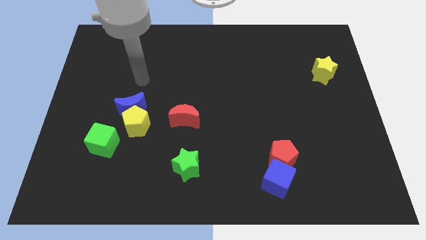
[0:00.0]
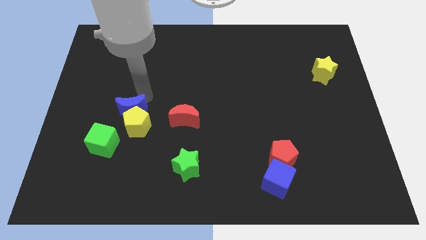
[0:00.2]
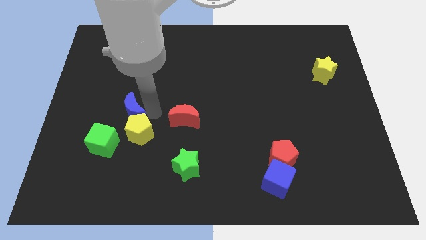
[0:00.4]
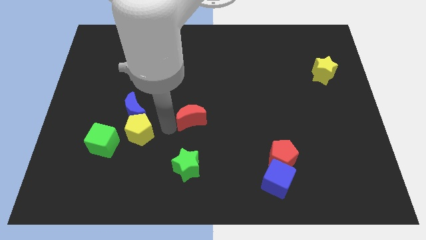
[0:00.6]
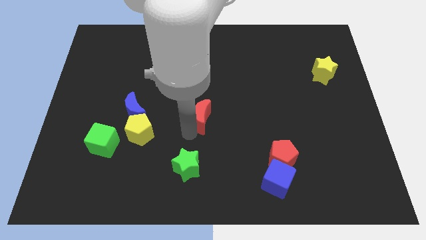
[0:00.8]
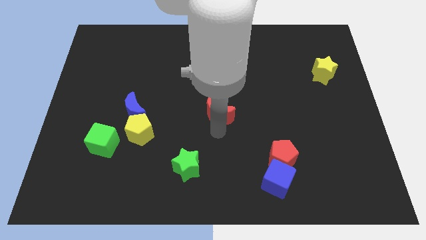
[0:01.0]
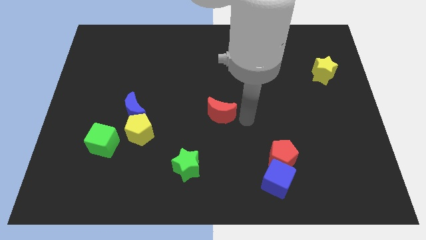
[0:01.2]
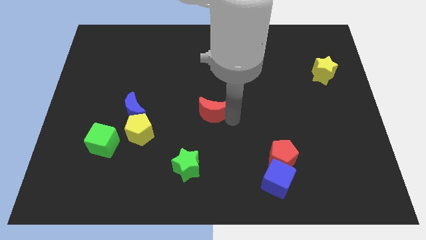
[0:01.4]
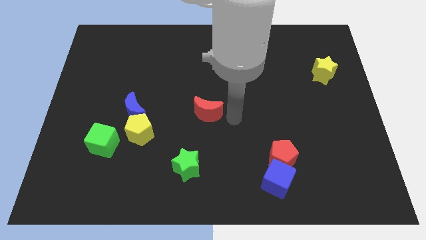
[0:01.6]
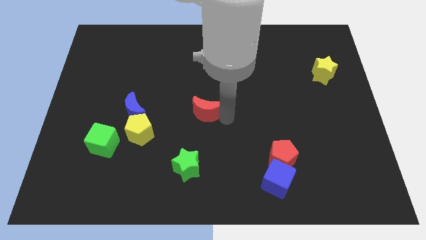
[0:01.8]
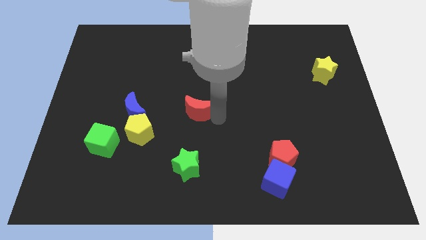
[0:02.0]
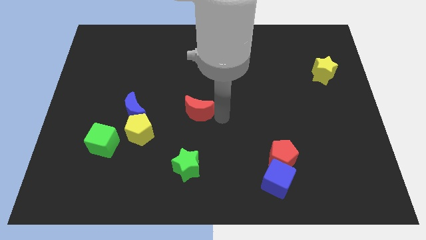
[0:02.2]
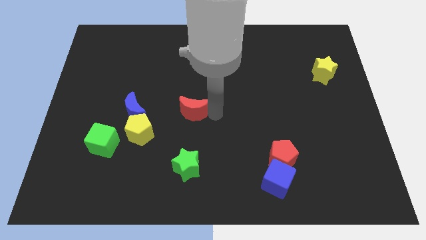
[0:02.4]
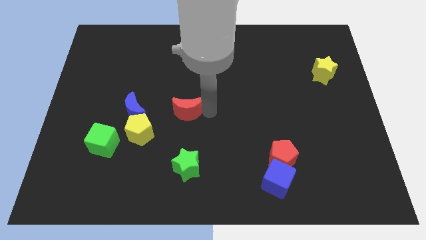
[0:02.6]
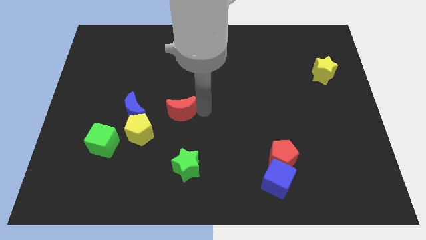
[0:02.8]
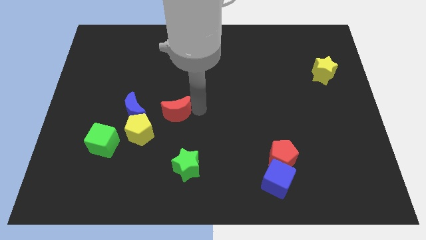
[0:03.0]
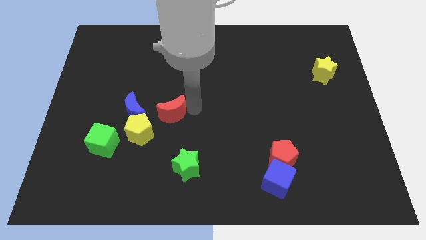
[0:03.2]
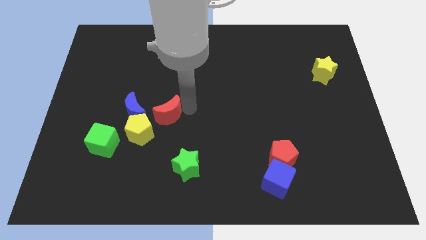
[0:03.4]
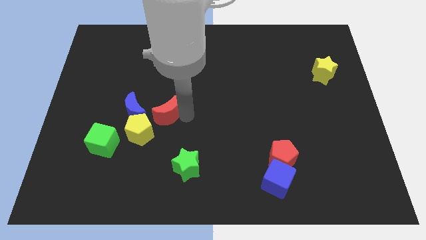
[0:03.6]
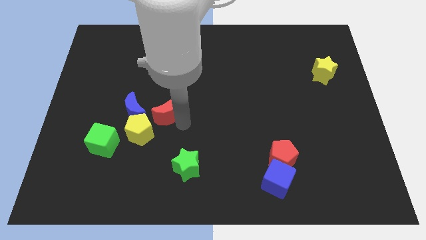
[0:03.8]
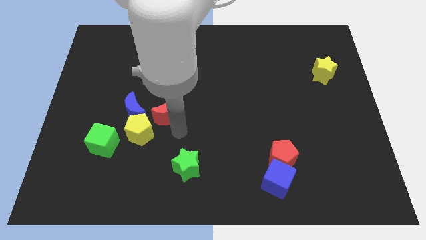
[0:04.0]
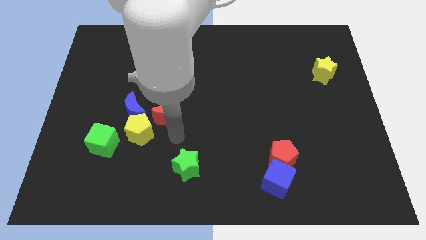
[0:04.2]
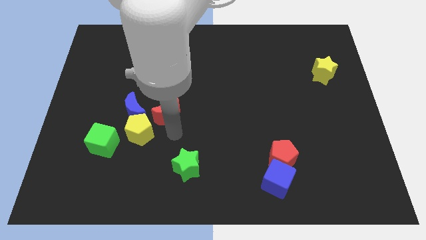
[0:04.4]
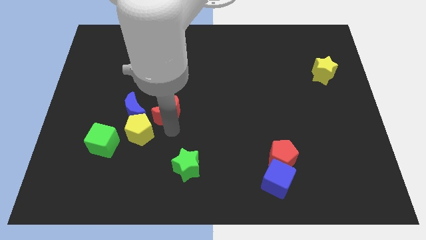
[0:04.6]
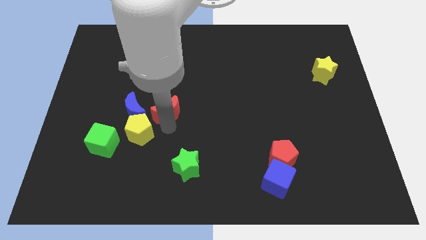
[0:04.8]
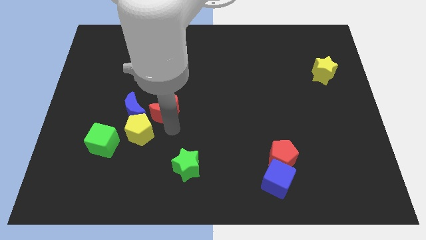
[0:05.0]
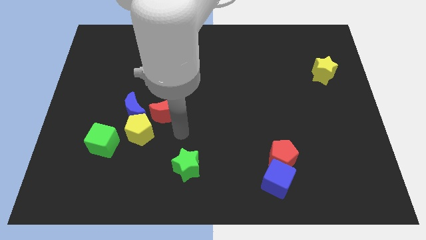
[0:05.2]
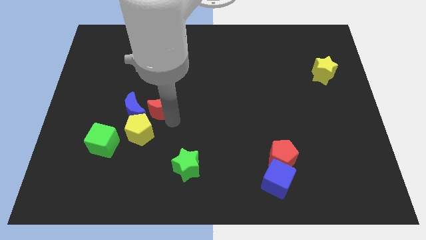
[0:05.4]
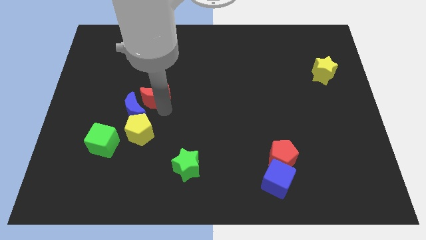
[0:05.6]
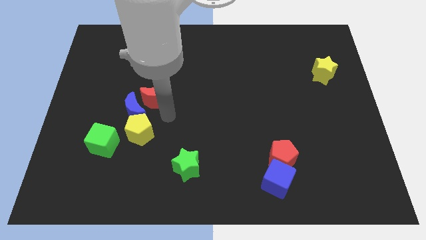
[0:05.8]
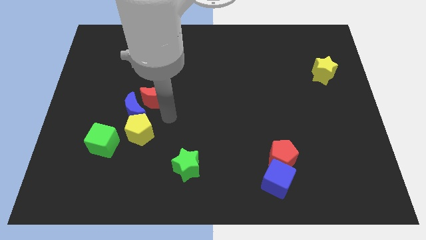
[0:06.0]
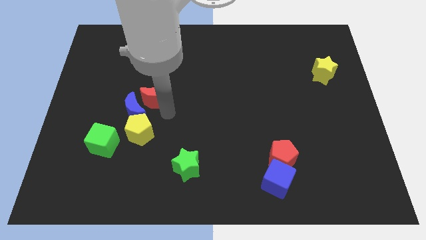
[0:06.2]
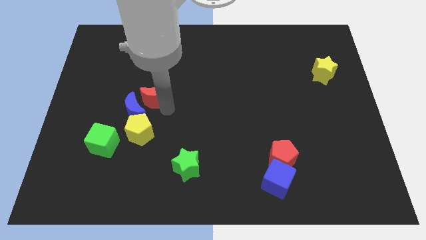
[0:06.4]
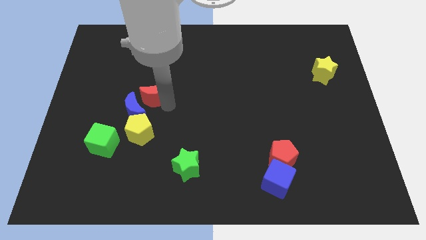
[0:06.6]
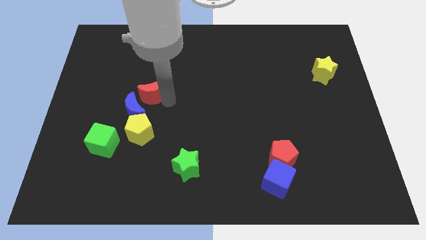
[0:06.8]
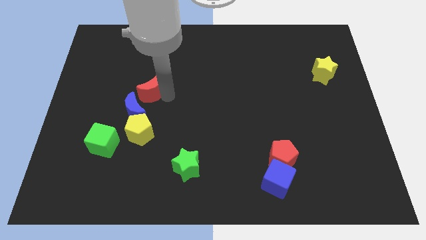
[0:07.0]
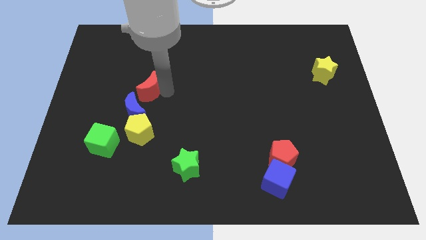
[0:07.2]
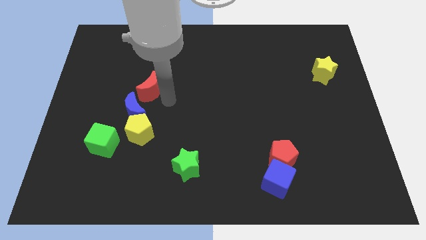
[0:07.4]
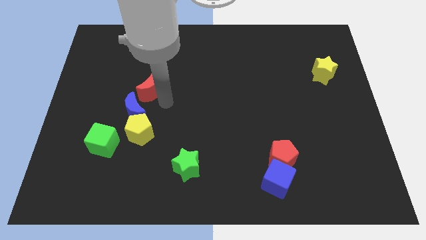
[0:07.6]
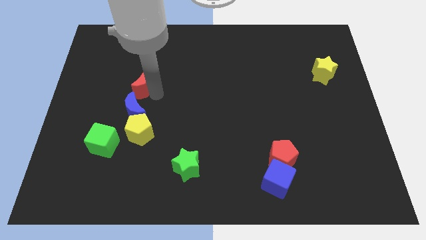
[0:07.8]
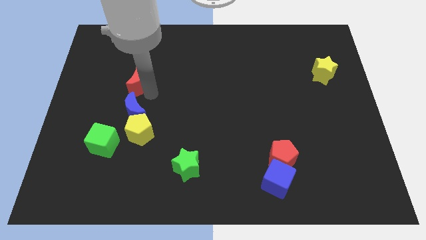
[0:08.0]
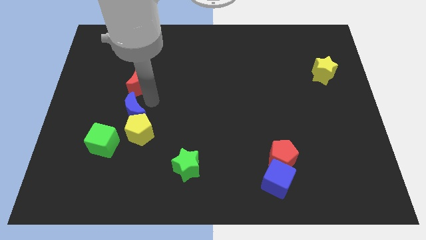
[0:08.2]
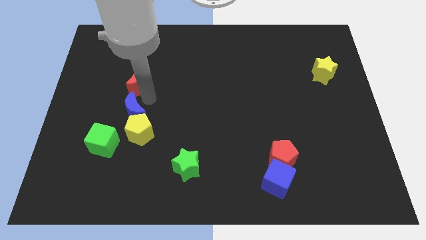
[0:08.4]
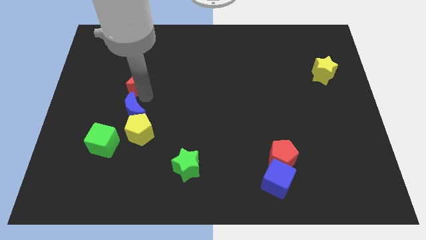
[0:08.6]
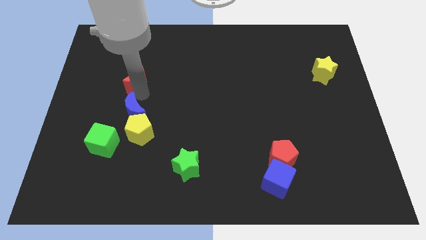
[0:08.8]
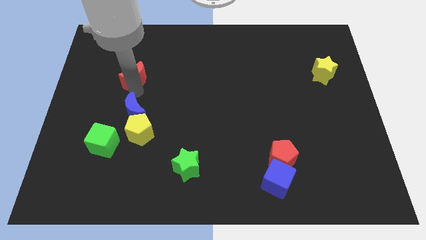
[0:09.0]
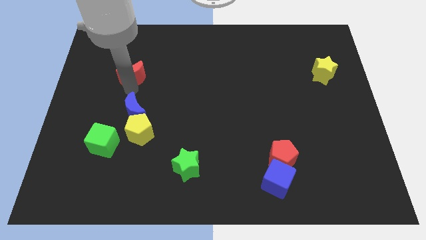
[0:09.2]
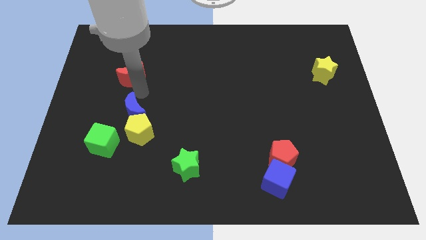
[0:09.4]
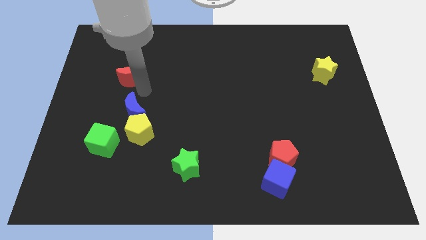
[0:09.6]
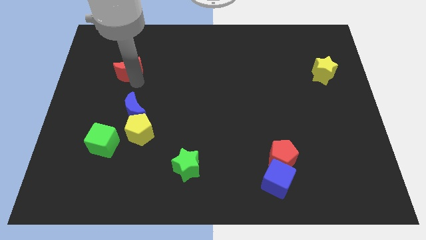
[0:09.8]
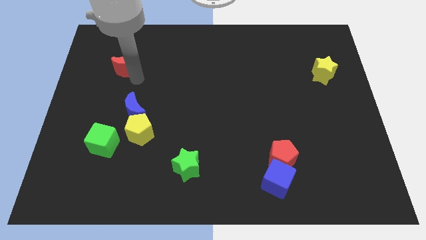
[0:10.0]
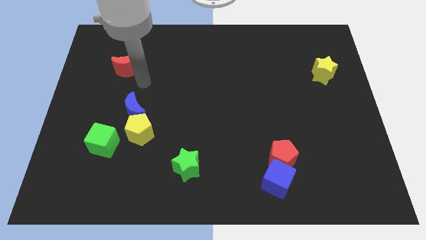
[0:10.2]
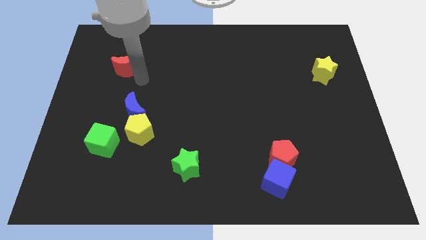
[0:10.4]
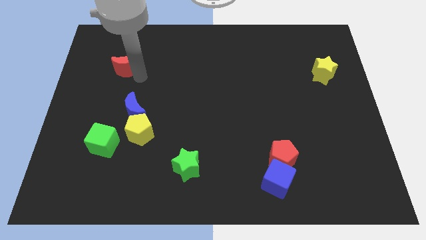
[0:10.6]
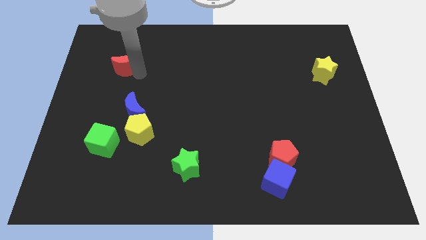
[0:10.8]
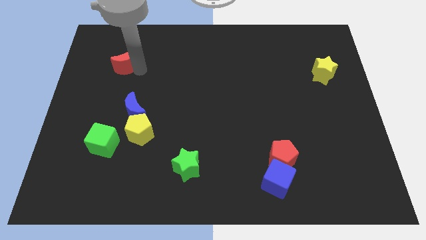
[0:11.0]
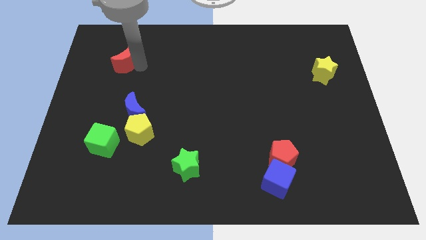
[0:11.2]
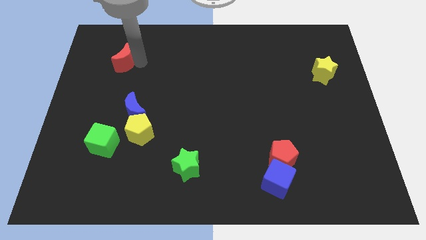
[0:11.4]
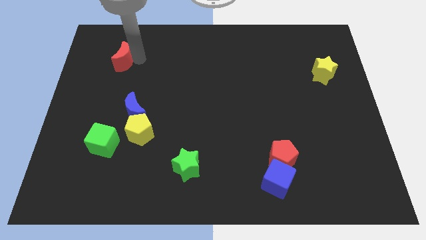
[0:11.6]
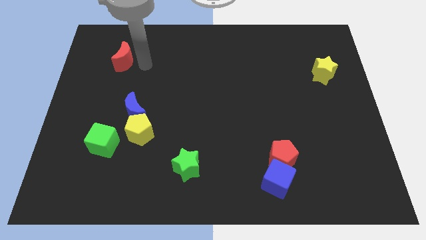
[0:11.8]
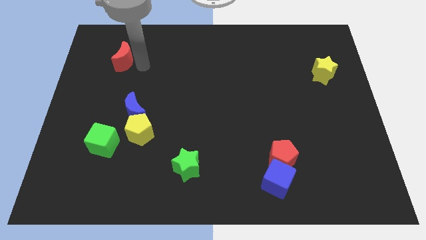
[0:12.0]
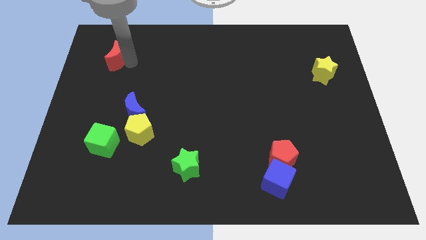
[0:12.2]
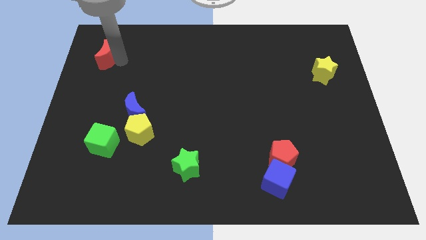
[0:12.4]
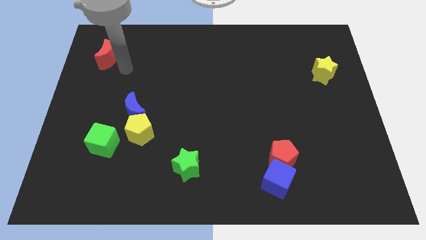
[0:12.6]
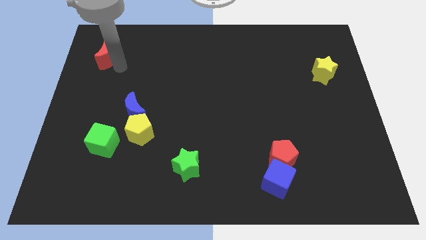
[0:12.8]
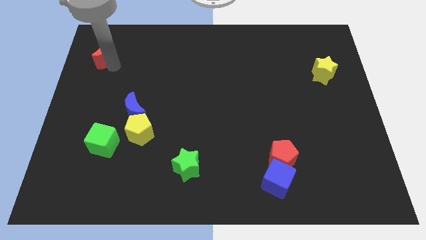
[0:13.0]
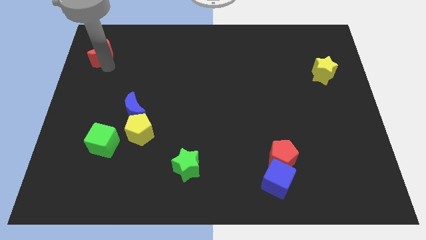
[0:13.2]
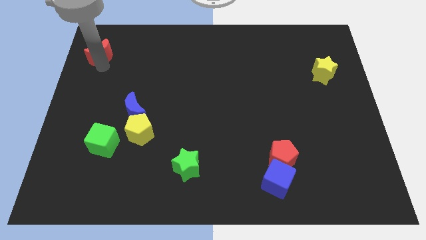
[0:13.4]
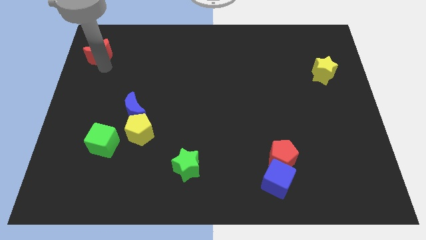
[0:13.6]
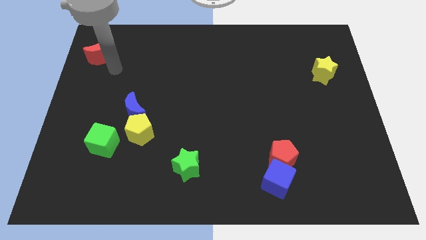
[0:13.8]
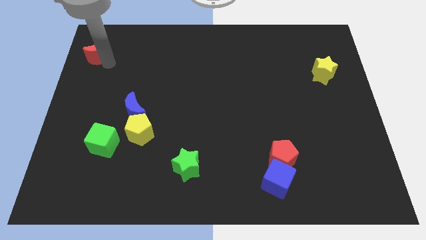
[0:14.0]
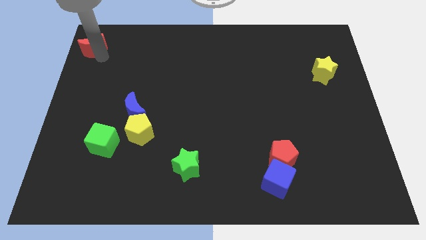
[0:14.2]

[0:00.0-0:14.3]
move the red moon to the upper left corner
